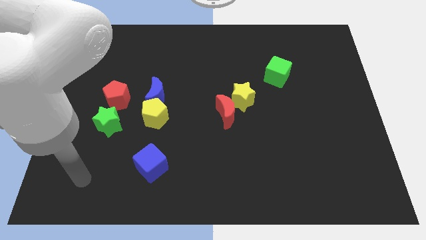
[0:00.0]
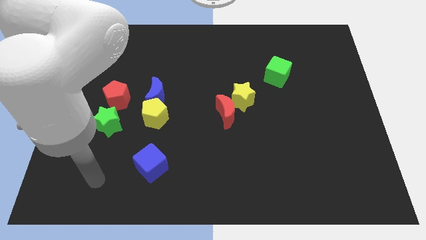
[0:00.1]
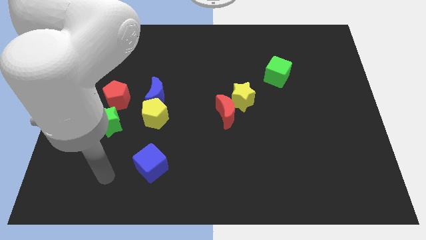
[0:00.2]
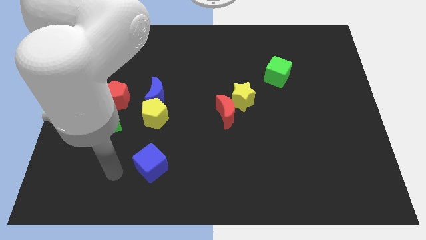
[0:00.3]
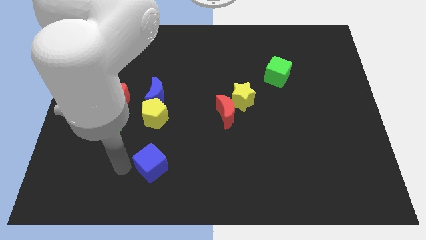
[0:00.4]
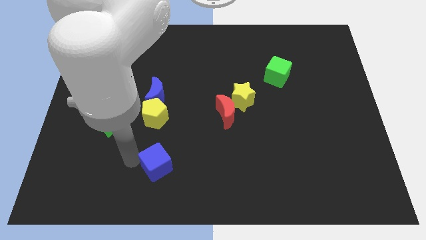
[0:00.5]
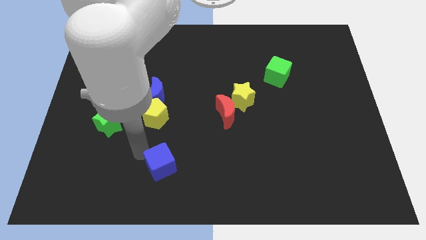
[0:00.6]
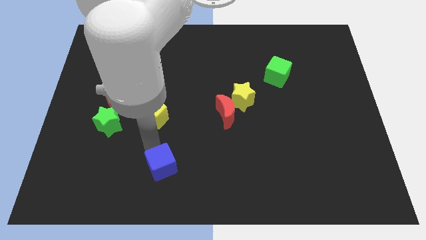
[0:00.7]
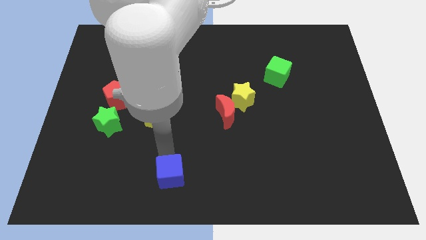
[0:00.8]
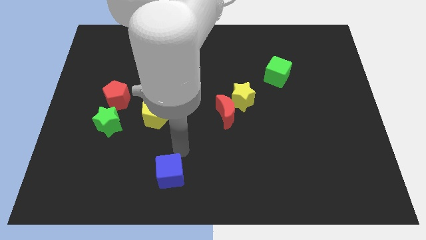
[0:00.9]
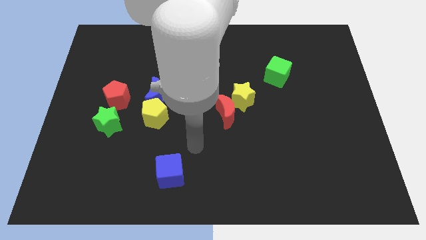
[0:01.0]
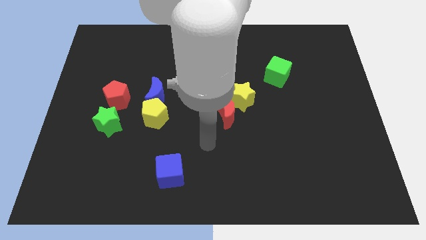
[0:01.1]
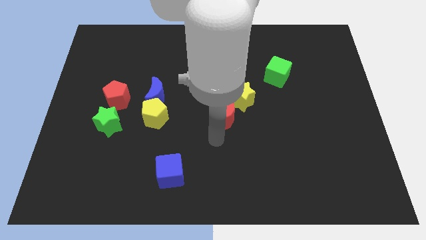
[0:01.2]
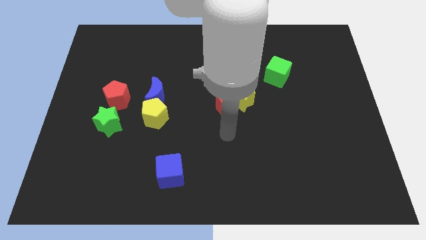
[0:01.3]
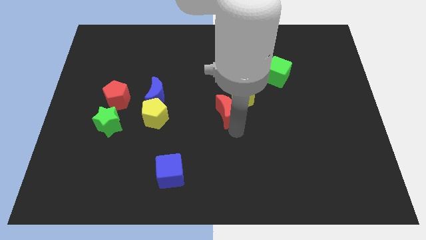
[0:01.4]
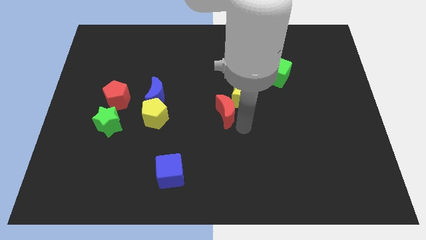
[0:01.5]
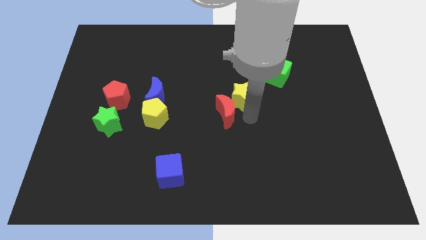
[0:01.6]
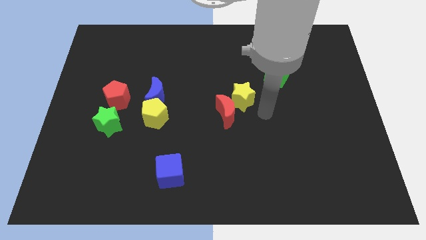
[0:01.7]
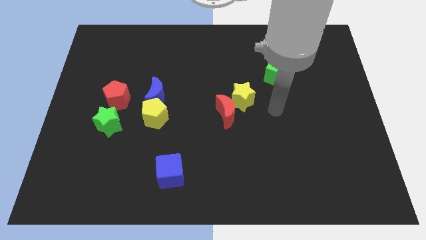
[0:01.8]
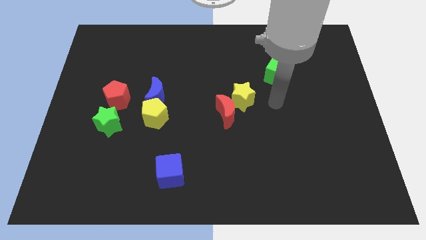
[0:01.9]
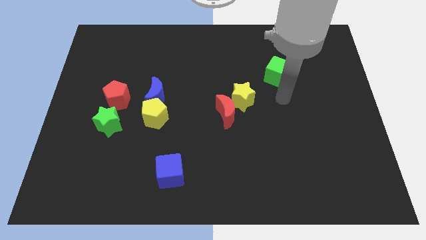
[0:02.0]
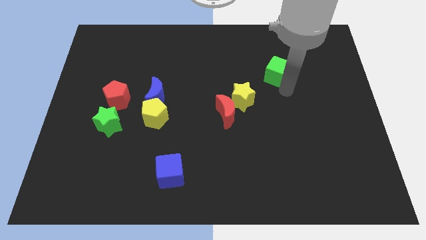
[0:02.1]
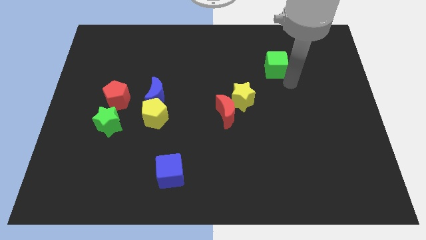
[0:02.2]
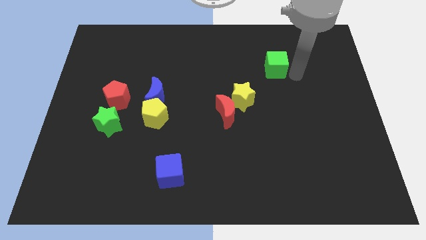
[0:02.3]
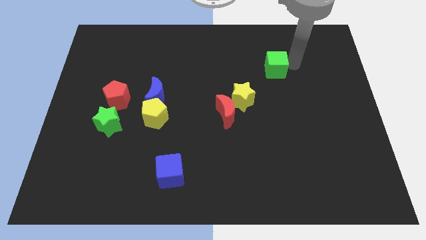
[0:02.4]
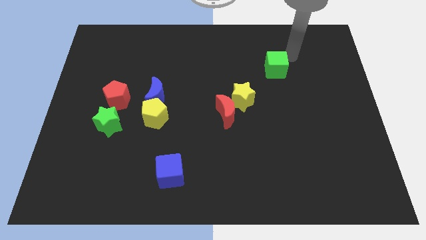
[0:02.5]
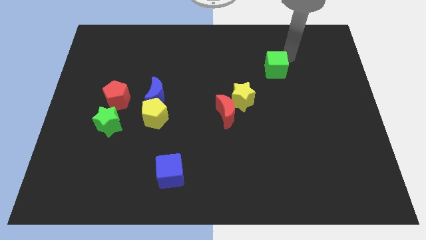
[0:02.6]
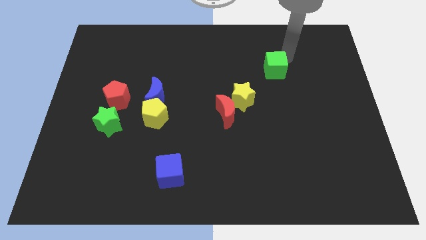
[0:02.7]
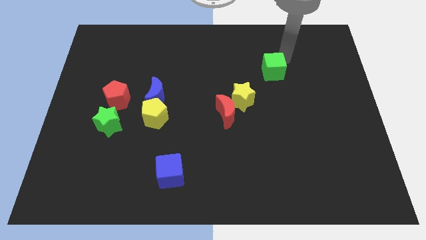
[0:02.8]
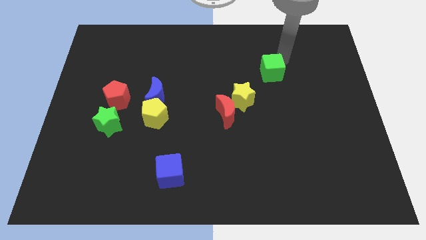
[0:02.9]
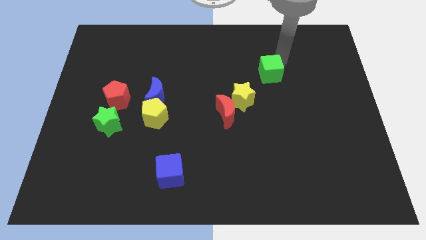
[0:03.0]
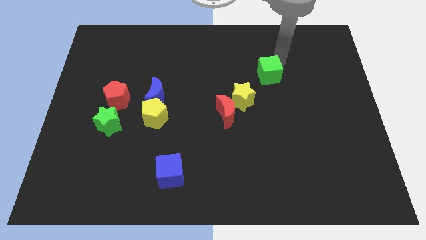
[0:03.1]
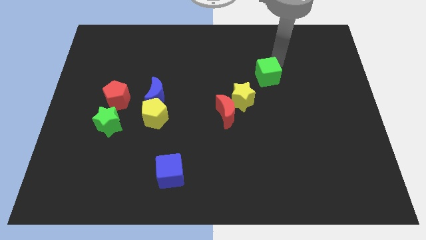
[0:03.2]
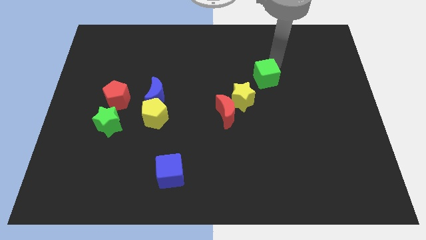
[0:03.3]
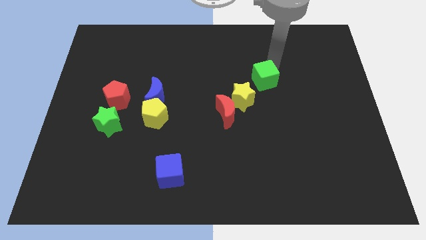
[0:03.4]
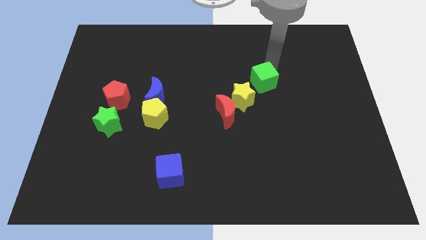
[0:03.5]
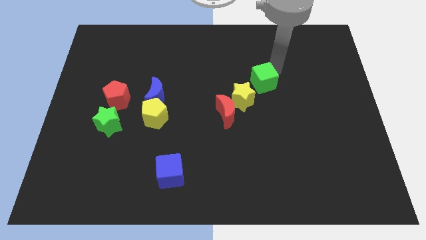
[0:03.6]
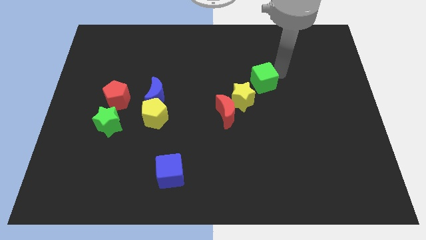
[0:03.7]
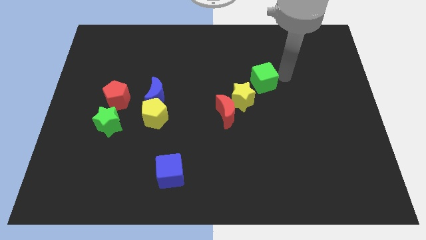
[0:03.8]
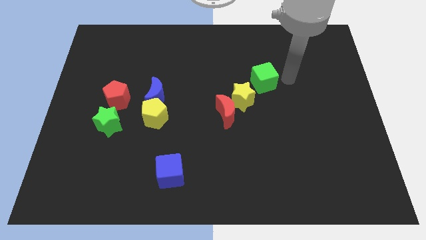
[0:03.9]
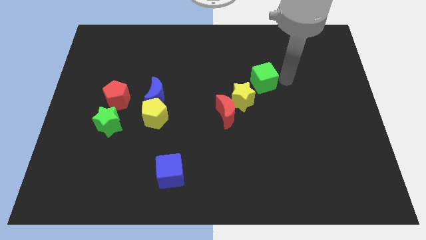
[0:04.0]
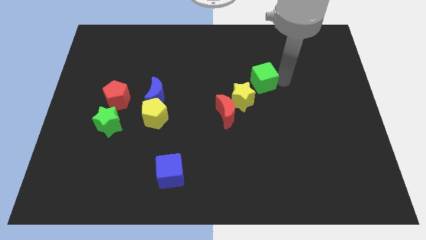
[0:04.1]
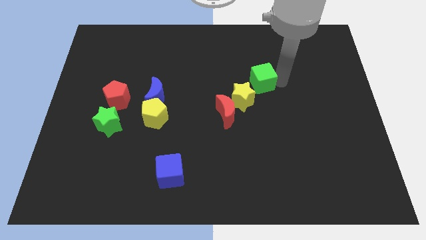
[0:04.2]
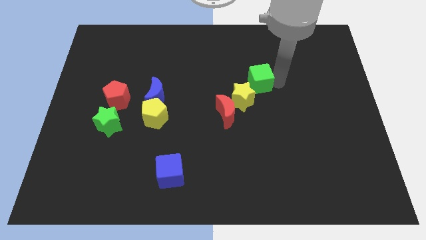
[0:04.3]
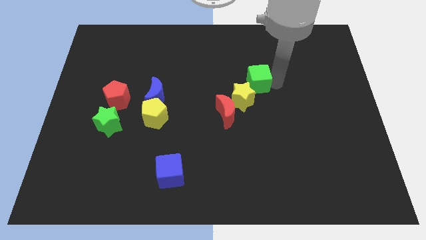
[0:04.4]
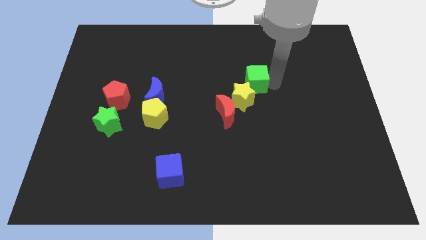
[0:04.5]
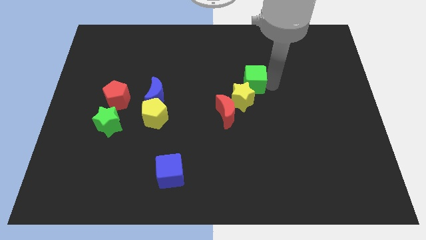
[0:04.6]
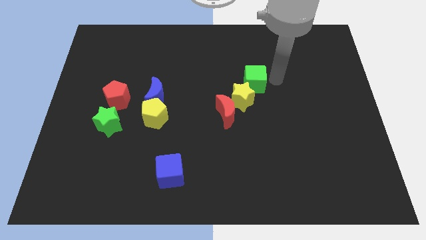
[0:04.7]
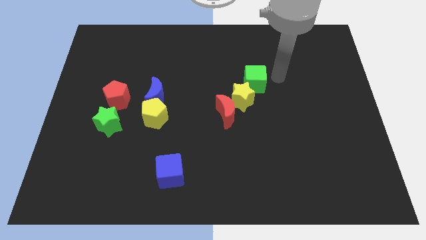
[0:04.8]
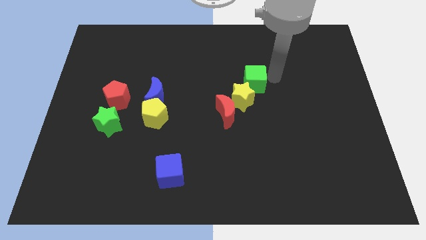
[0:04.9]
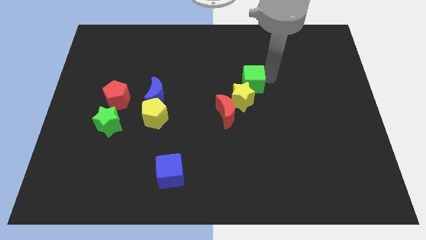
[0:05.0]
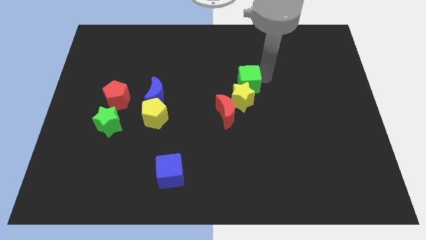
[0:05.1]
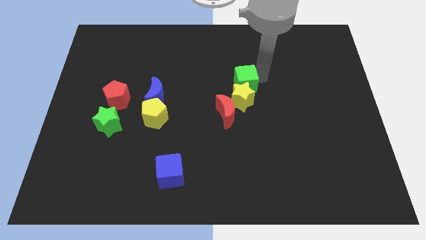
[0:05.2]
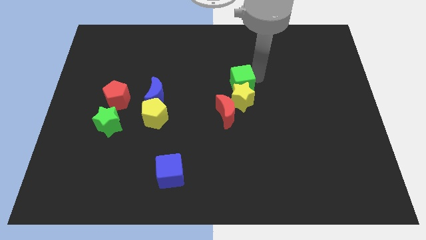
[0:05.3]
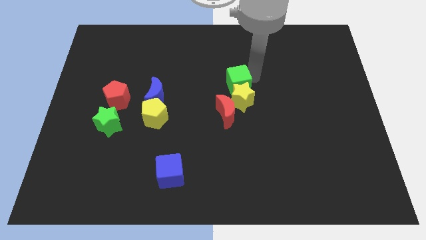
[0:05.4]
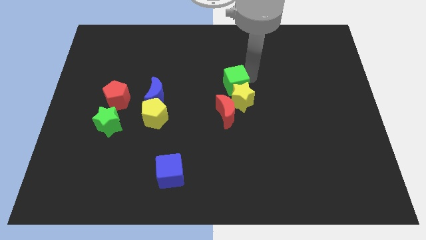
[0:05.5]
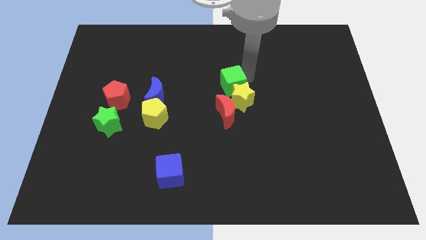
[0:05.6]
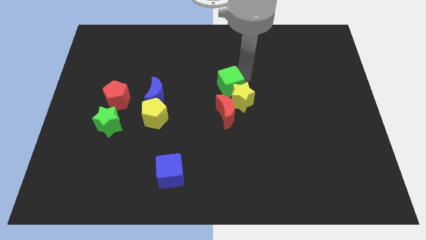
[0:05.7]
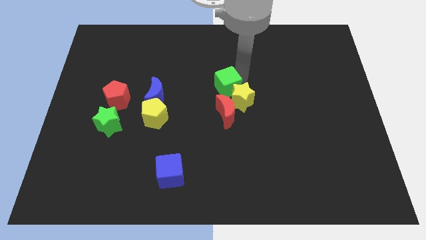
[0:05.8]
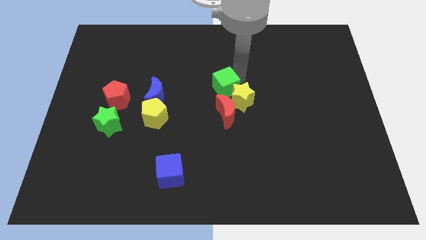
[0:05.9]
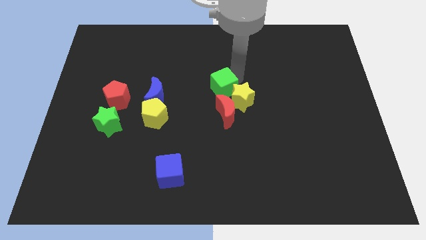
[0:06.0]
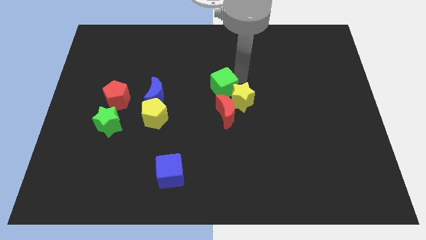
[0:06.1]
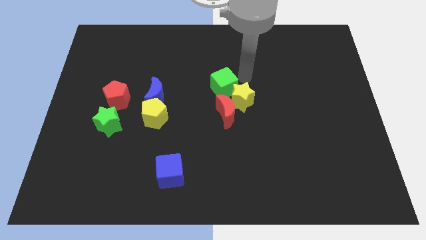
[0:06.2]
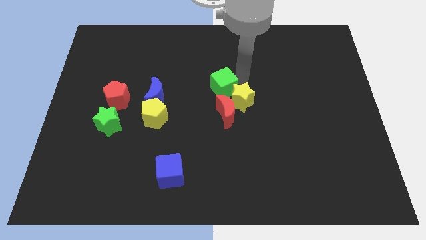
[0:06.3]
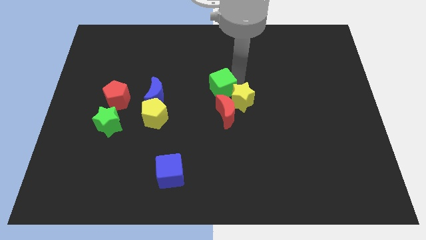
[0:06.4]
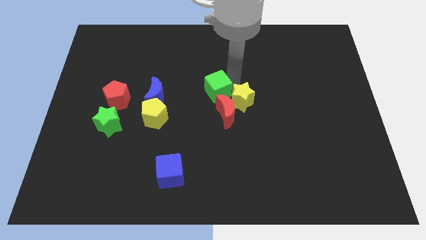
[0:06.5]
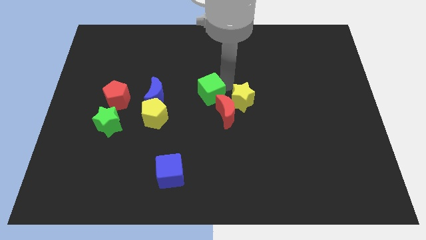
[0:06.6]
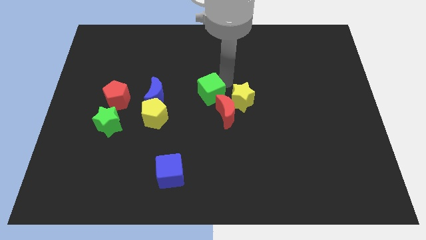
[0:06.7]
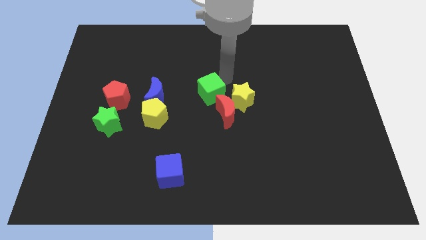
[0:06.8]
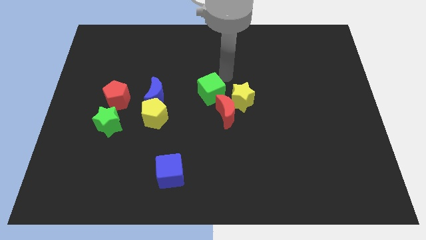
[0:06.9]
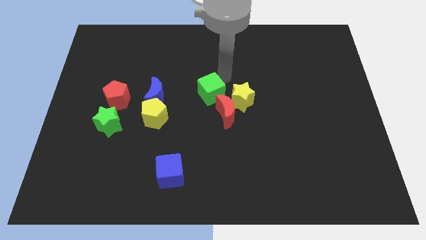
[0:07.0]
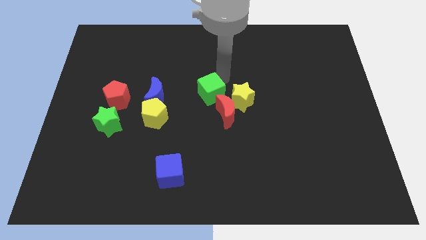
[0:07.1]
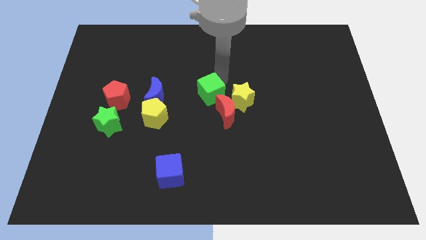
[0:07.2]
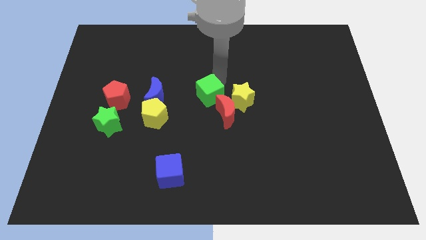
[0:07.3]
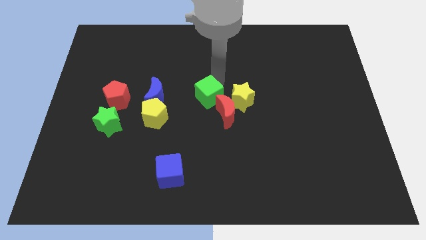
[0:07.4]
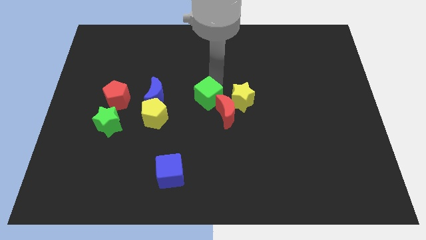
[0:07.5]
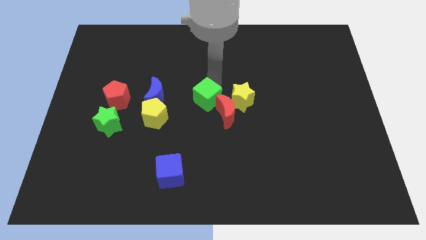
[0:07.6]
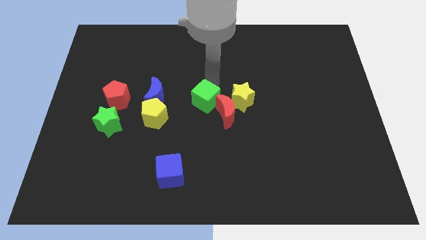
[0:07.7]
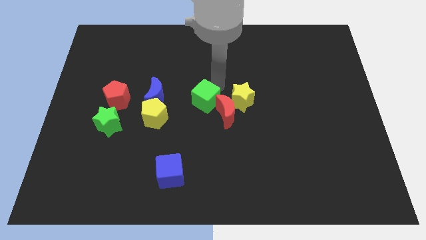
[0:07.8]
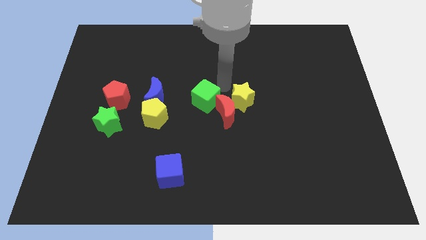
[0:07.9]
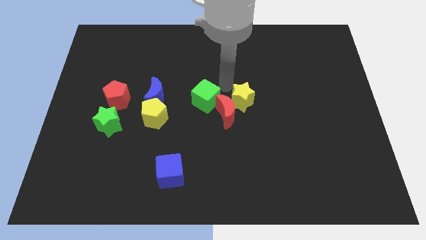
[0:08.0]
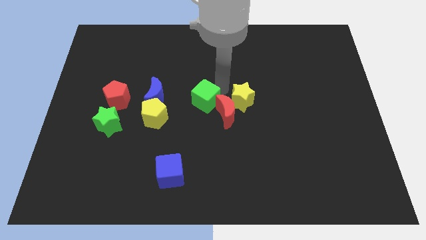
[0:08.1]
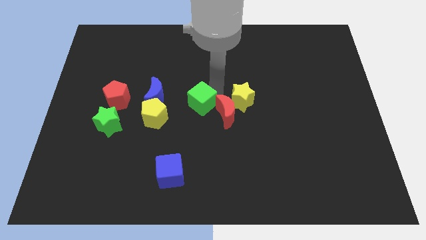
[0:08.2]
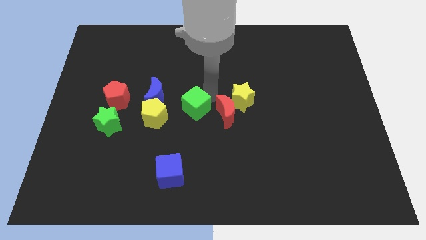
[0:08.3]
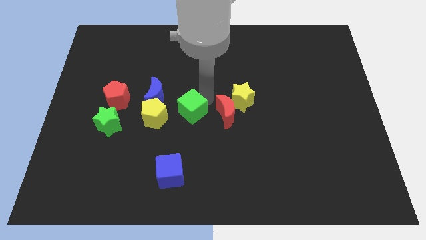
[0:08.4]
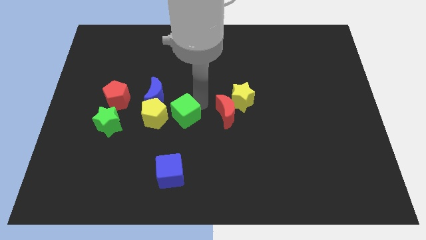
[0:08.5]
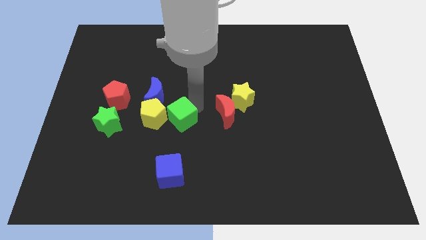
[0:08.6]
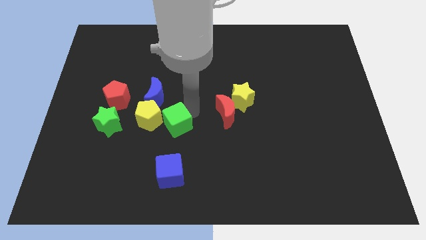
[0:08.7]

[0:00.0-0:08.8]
put the green cube to the right of the green star
